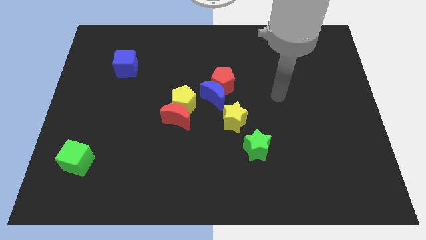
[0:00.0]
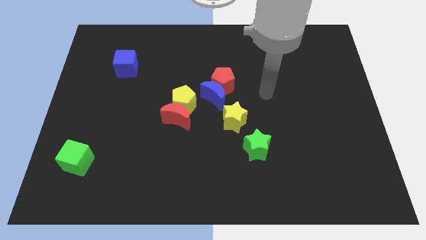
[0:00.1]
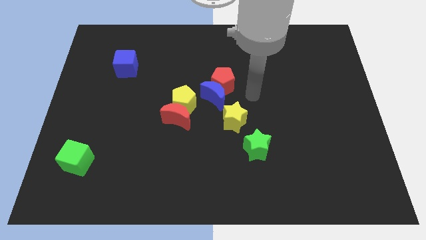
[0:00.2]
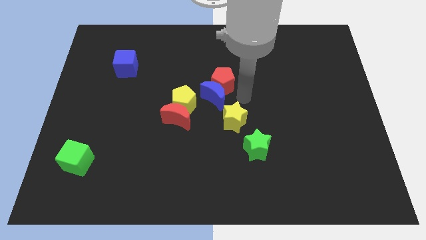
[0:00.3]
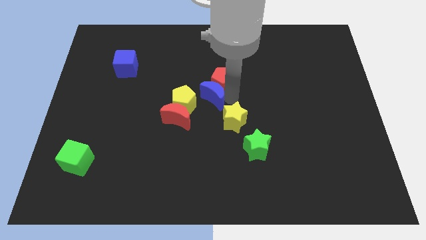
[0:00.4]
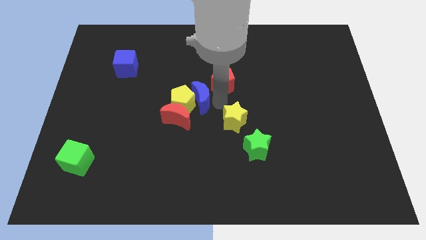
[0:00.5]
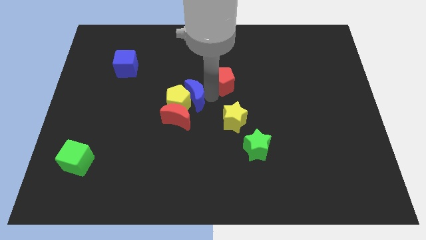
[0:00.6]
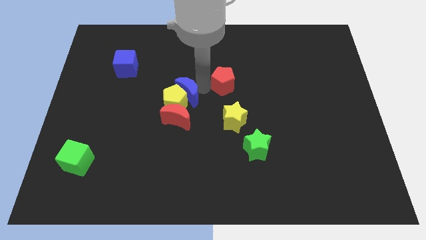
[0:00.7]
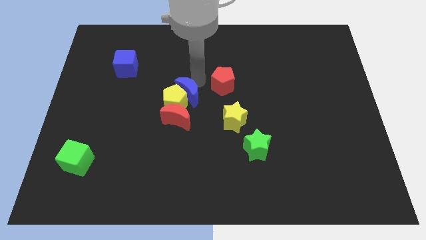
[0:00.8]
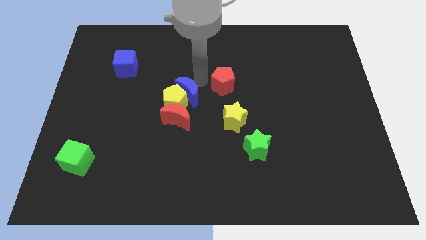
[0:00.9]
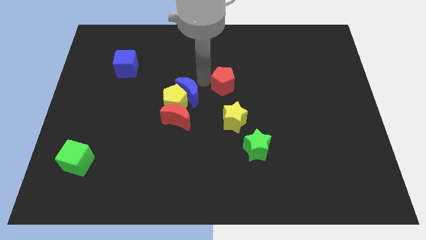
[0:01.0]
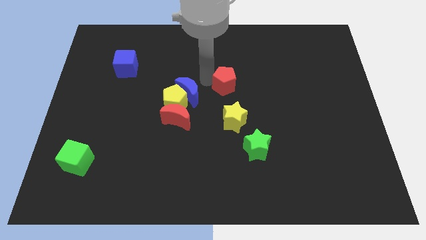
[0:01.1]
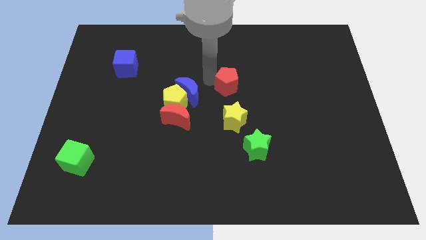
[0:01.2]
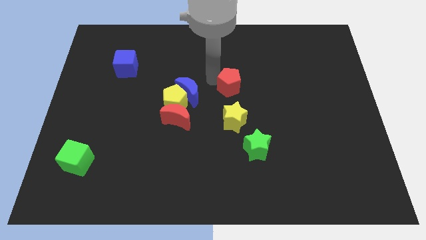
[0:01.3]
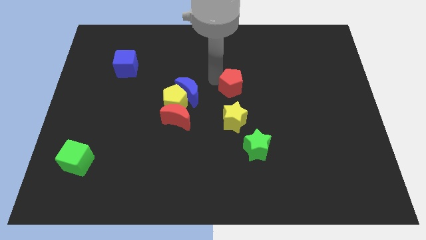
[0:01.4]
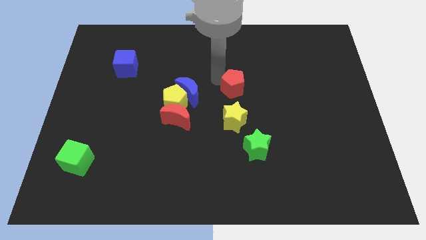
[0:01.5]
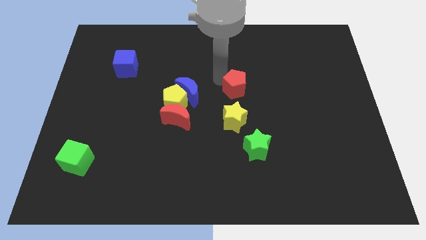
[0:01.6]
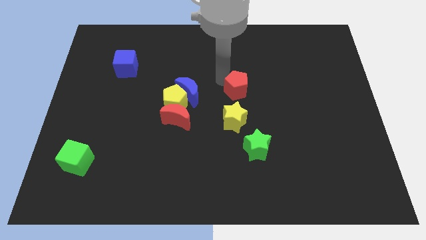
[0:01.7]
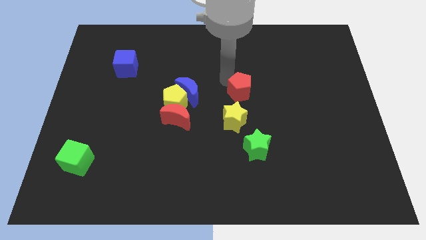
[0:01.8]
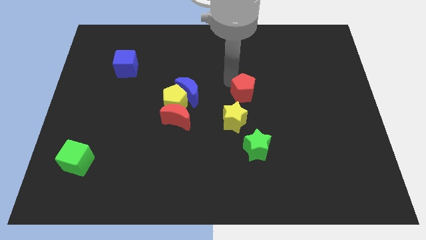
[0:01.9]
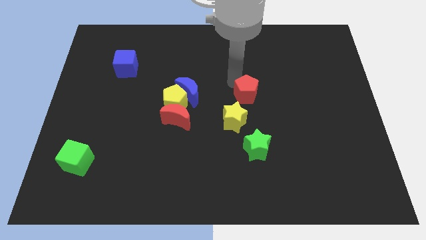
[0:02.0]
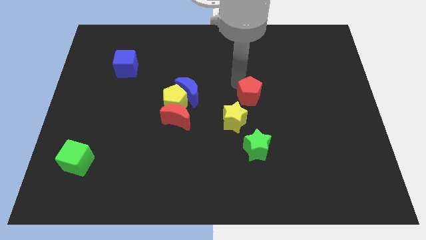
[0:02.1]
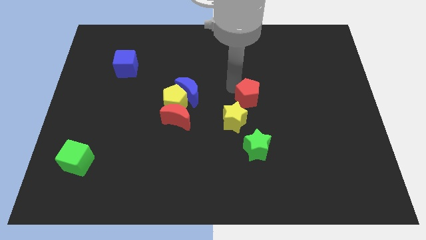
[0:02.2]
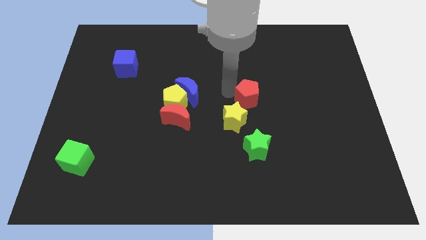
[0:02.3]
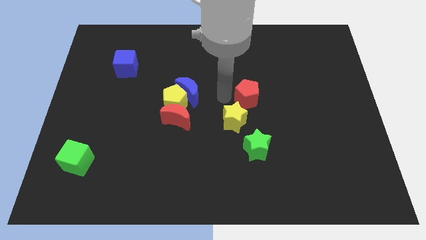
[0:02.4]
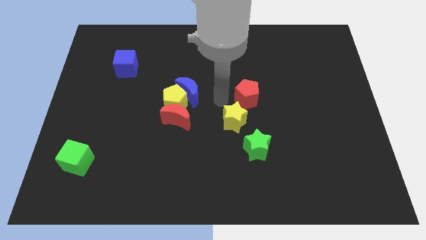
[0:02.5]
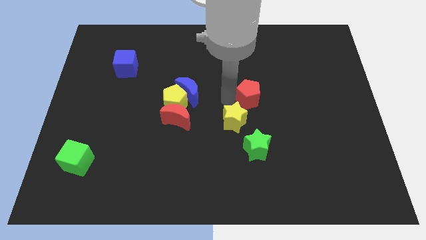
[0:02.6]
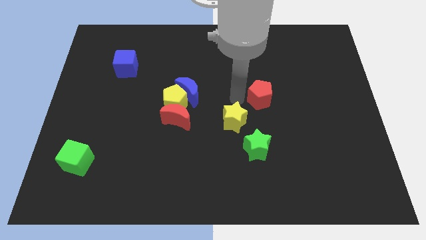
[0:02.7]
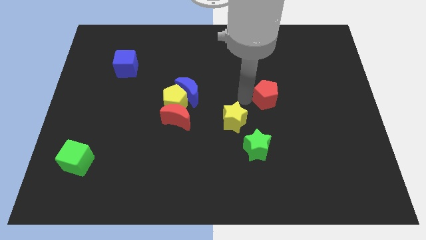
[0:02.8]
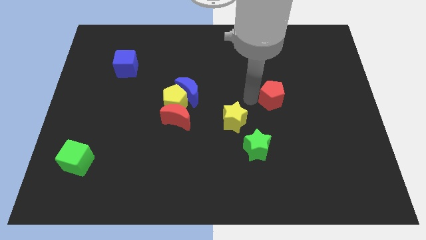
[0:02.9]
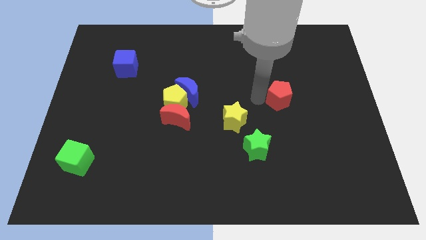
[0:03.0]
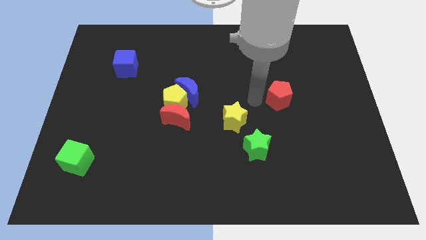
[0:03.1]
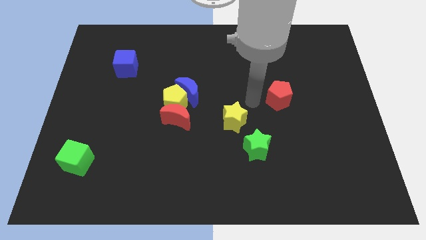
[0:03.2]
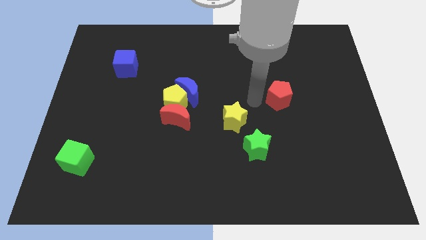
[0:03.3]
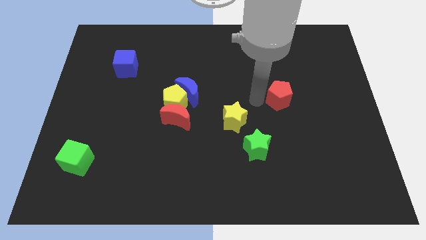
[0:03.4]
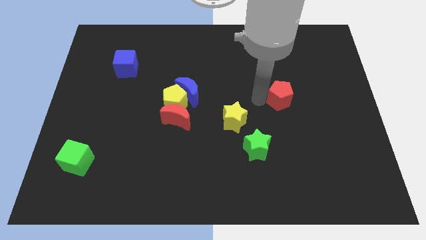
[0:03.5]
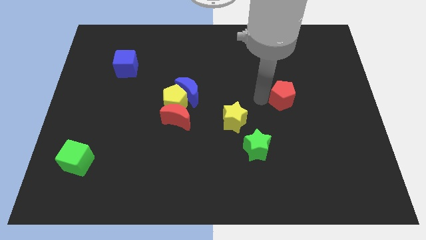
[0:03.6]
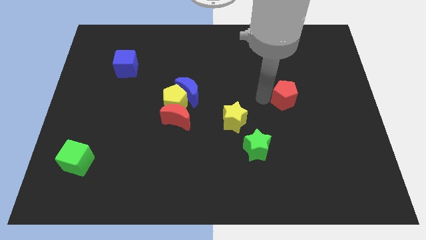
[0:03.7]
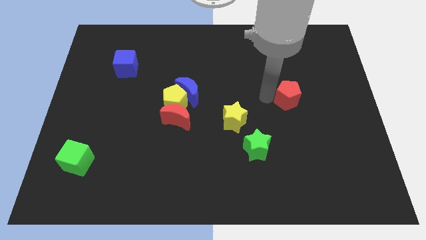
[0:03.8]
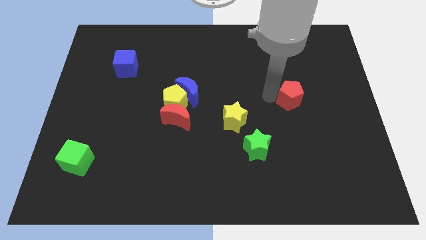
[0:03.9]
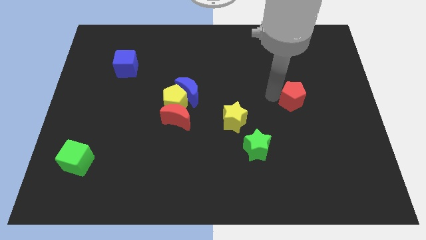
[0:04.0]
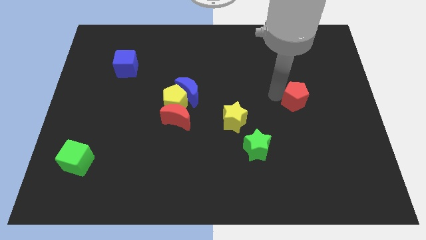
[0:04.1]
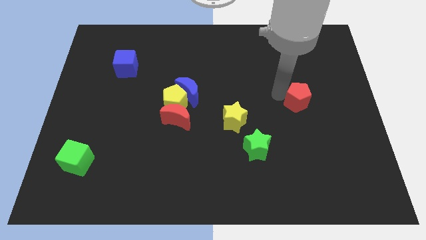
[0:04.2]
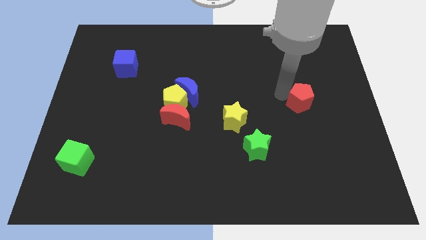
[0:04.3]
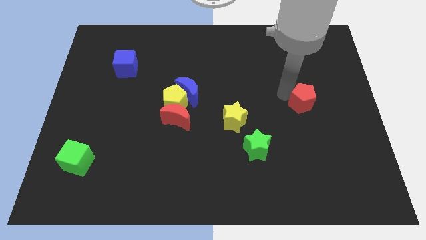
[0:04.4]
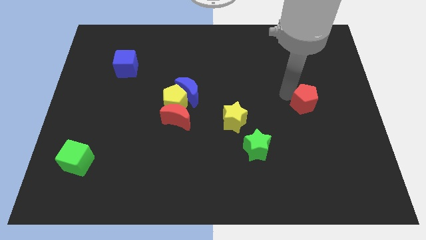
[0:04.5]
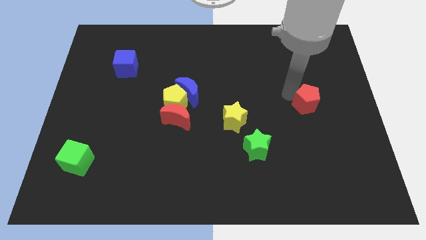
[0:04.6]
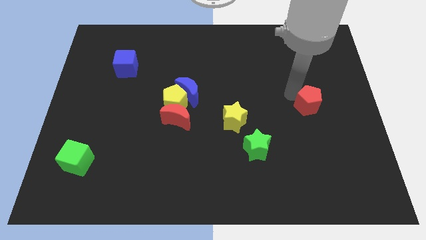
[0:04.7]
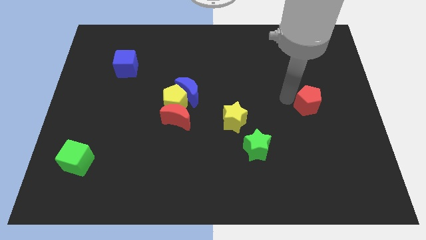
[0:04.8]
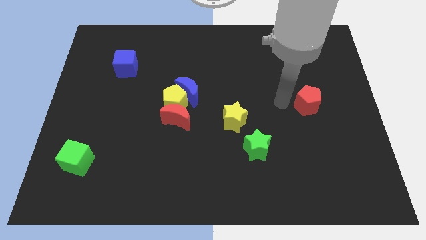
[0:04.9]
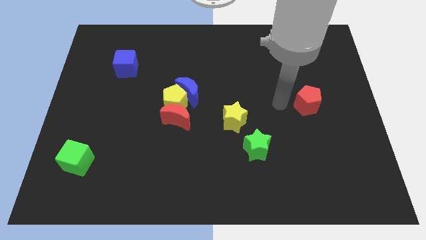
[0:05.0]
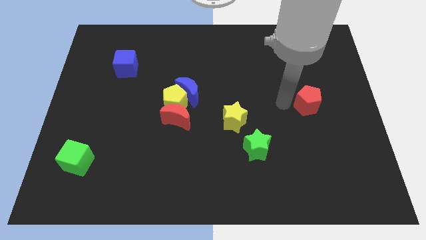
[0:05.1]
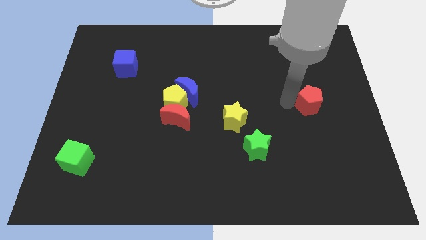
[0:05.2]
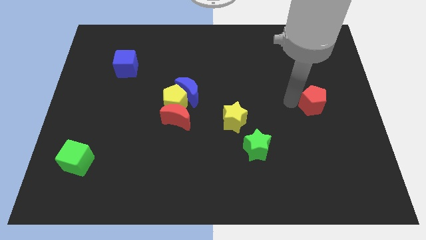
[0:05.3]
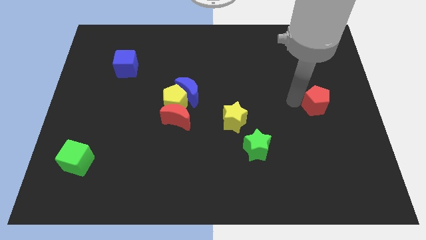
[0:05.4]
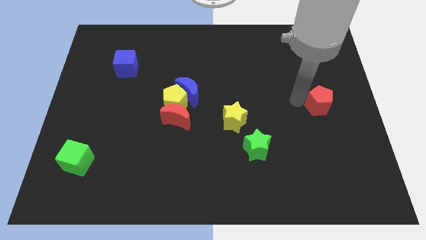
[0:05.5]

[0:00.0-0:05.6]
push the red pentagon to the right side of the board
